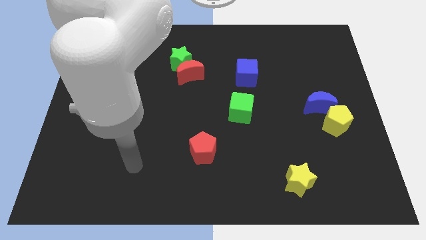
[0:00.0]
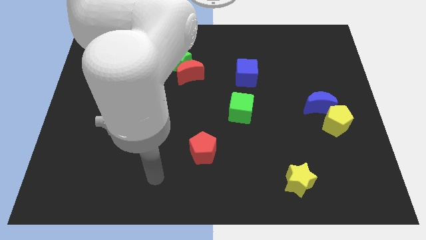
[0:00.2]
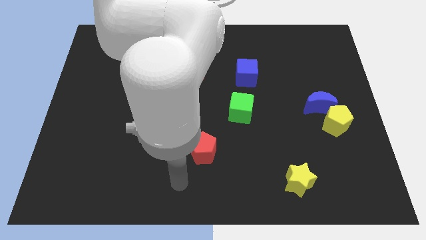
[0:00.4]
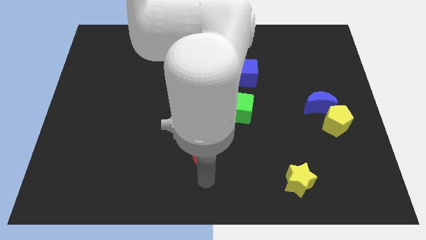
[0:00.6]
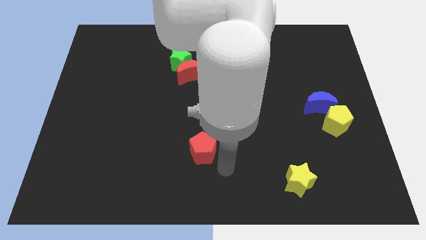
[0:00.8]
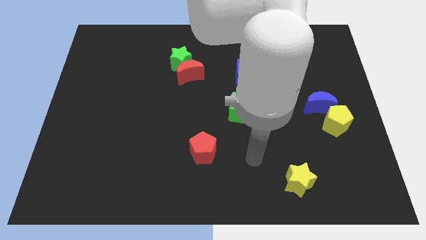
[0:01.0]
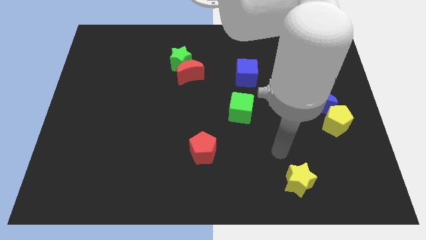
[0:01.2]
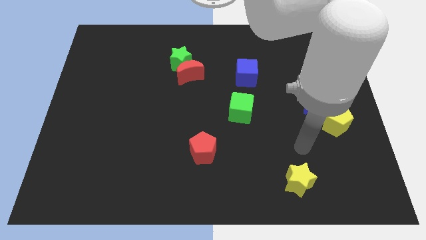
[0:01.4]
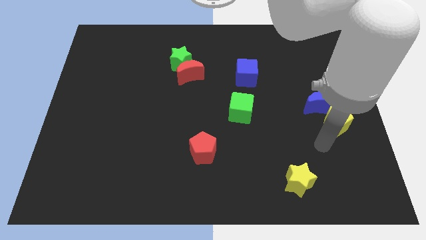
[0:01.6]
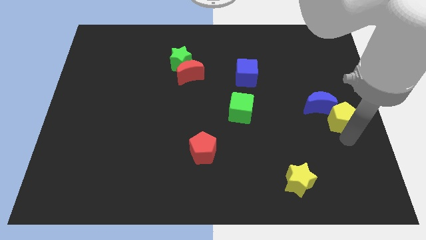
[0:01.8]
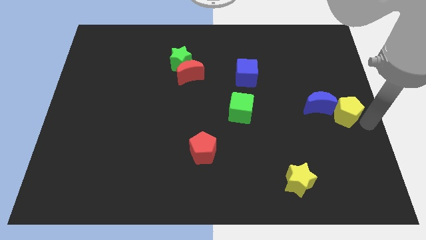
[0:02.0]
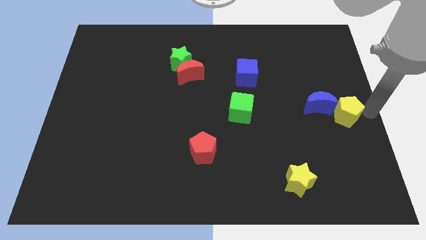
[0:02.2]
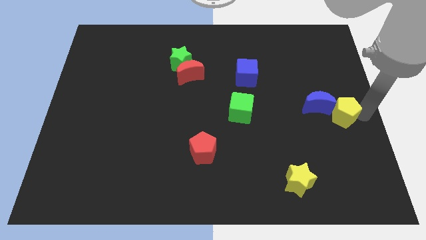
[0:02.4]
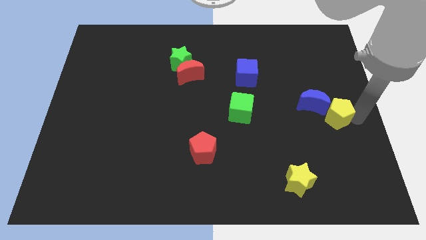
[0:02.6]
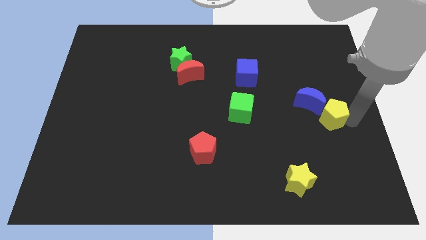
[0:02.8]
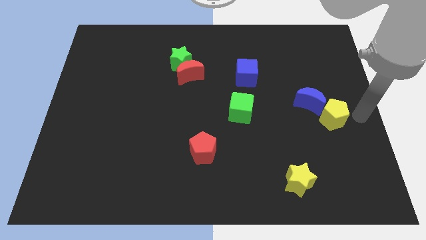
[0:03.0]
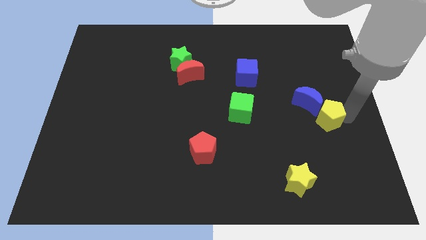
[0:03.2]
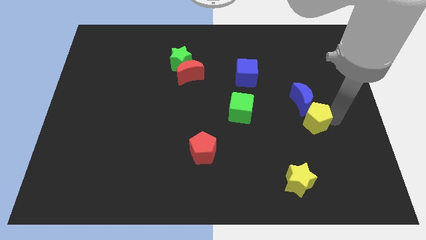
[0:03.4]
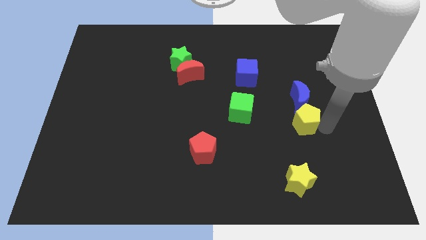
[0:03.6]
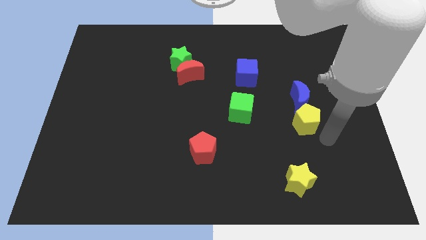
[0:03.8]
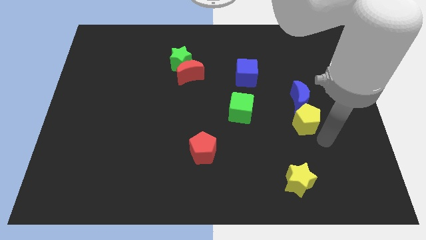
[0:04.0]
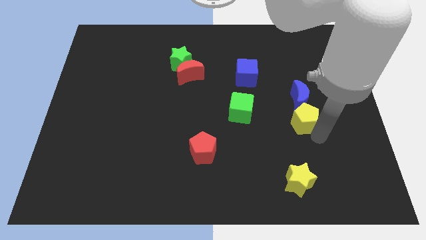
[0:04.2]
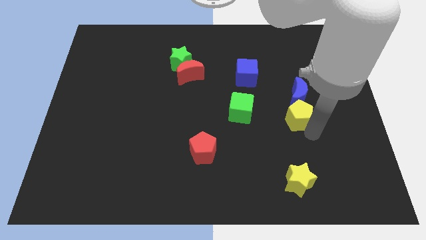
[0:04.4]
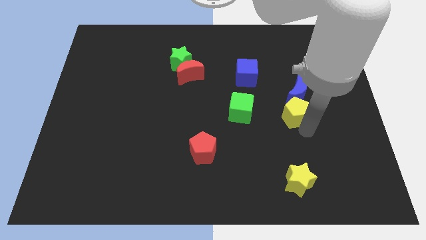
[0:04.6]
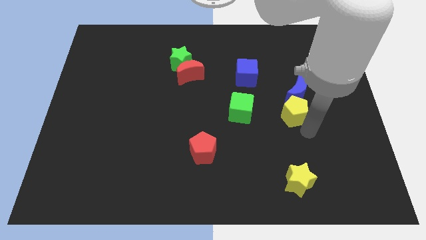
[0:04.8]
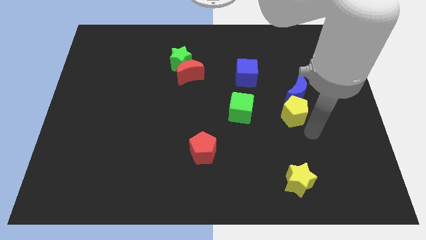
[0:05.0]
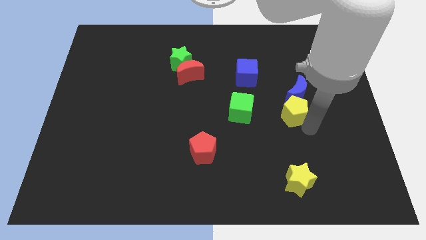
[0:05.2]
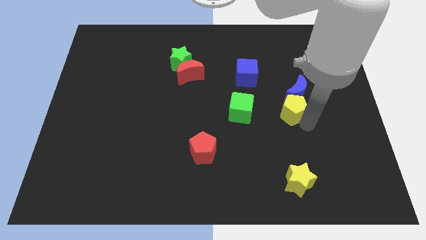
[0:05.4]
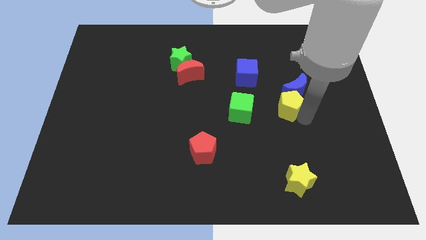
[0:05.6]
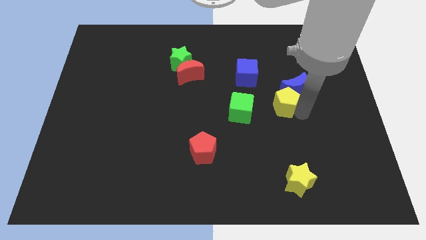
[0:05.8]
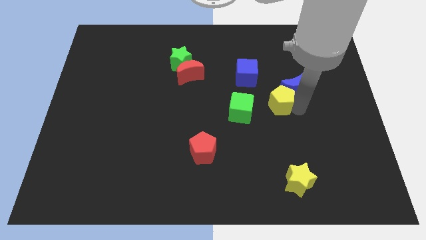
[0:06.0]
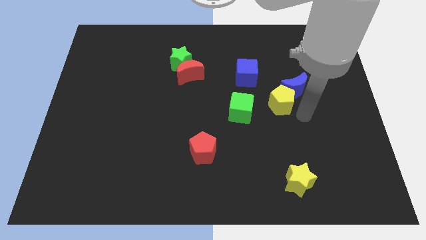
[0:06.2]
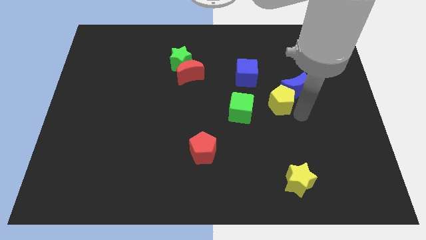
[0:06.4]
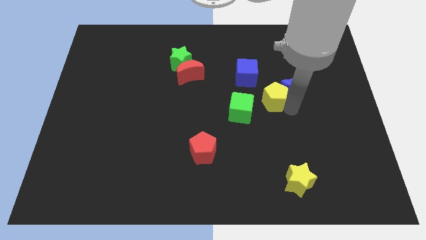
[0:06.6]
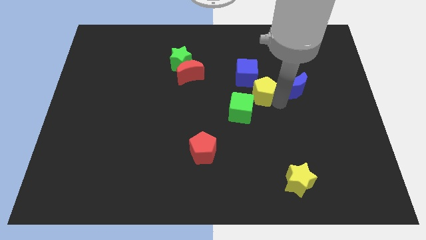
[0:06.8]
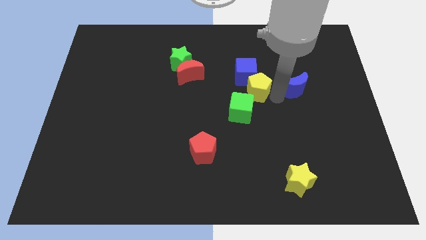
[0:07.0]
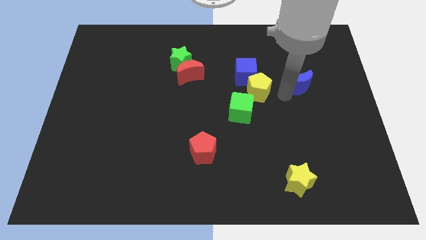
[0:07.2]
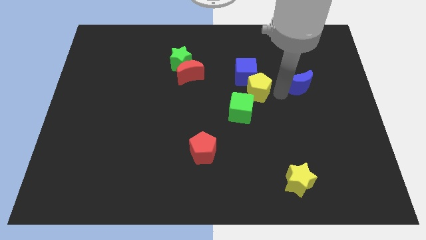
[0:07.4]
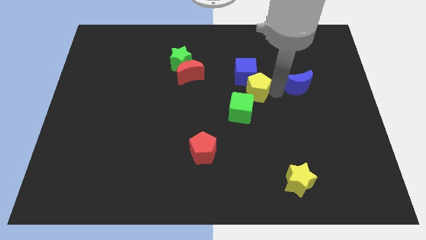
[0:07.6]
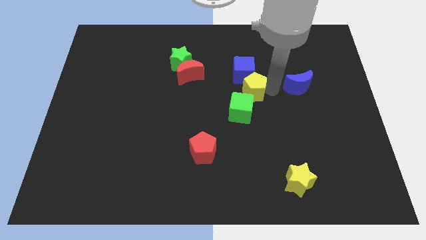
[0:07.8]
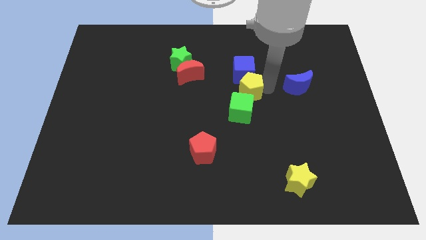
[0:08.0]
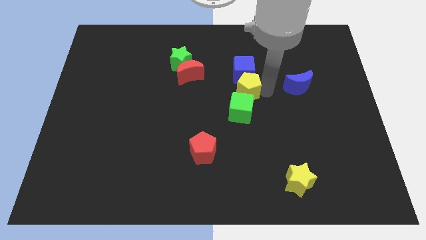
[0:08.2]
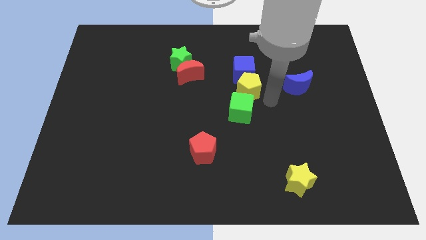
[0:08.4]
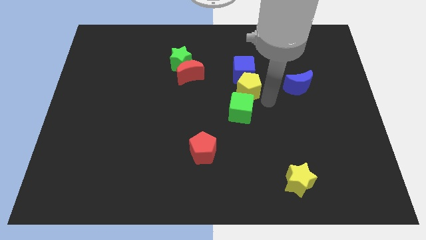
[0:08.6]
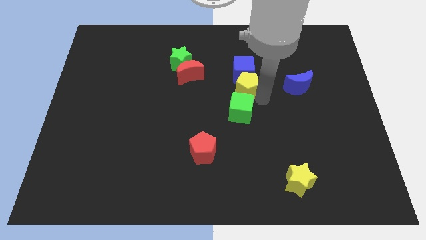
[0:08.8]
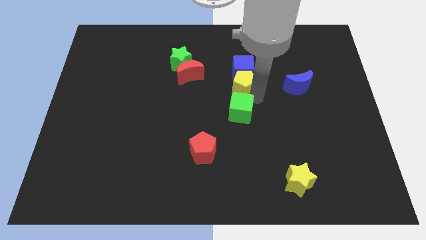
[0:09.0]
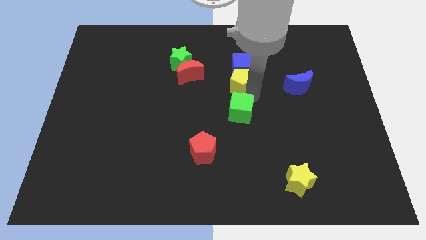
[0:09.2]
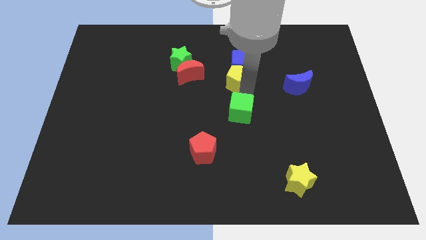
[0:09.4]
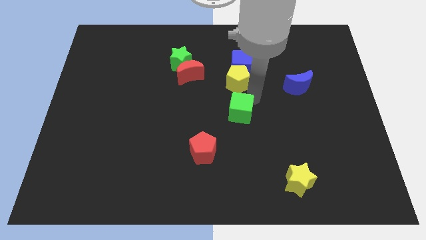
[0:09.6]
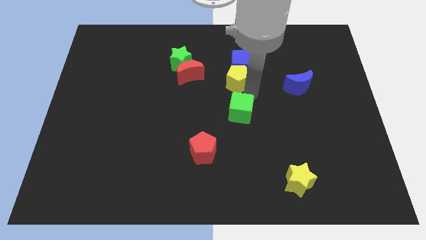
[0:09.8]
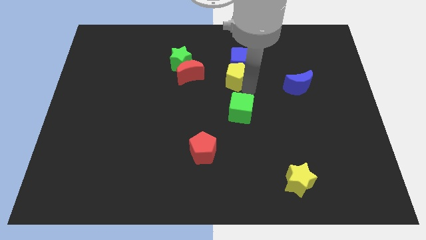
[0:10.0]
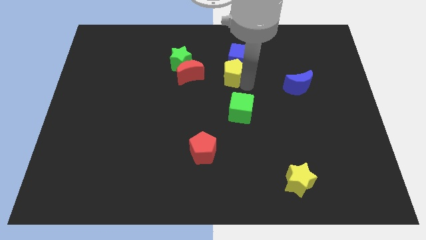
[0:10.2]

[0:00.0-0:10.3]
slide the yellow pentagon to the right side of the green star

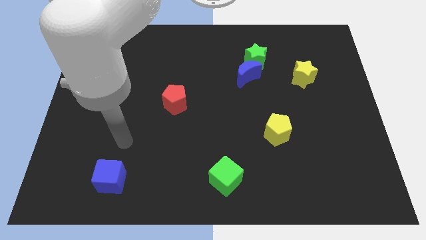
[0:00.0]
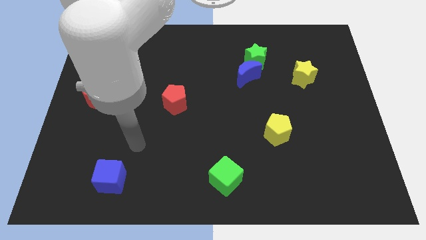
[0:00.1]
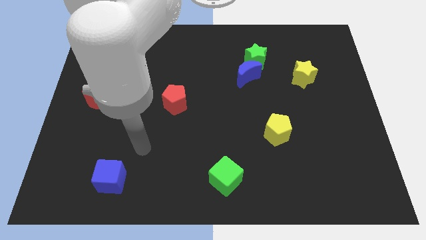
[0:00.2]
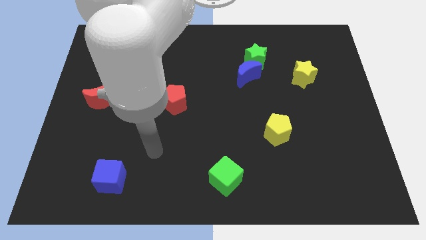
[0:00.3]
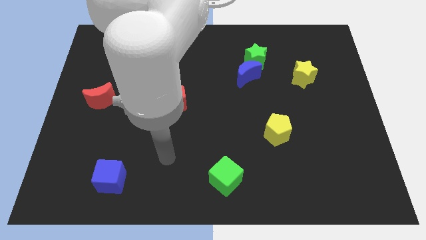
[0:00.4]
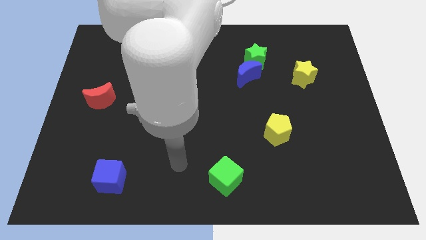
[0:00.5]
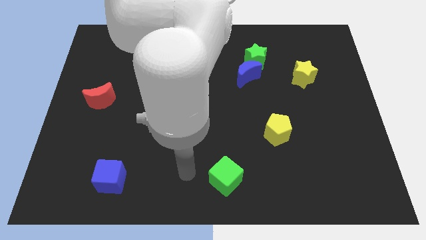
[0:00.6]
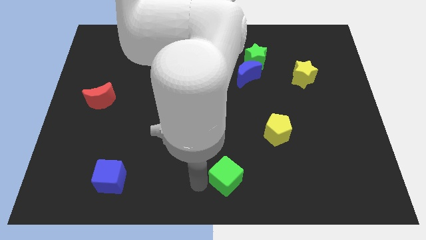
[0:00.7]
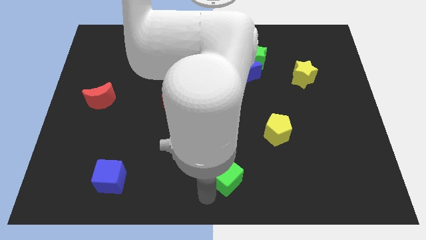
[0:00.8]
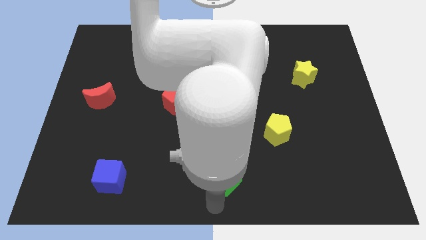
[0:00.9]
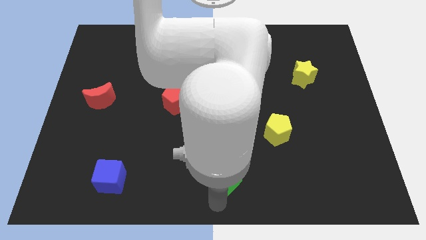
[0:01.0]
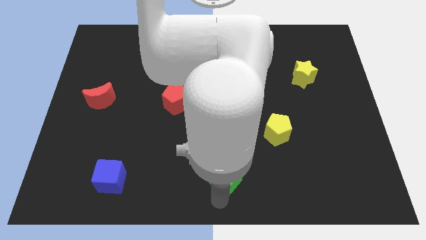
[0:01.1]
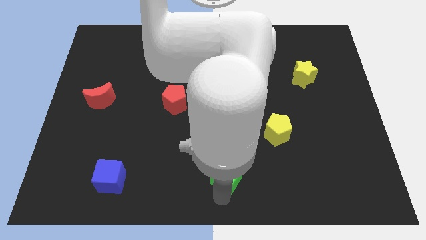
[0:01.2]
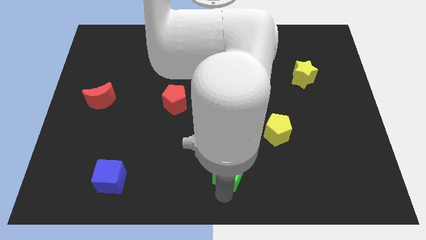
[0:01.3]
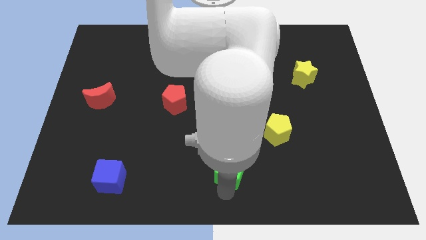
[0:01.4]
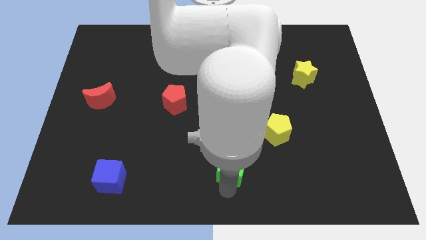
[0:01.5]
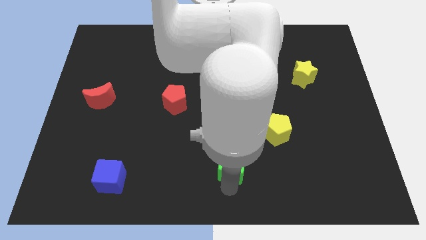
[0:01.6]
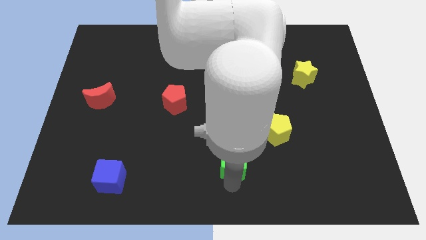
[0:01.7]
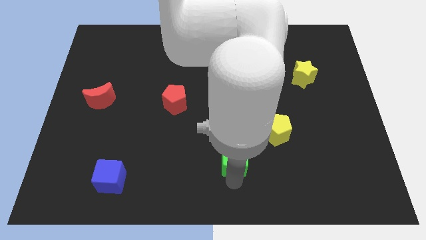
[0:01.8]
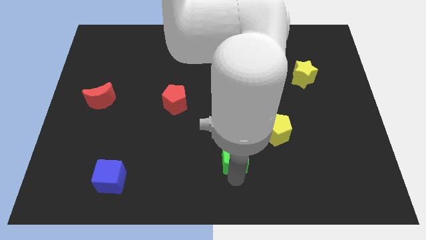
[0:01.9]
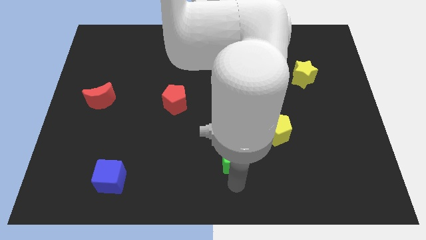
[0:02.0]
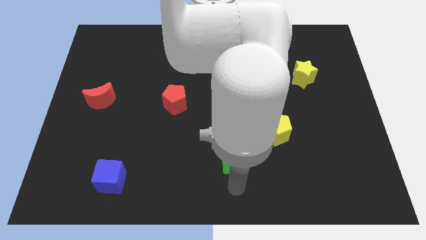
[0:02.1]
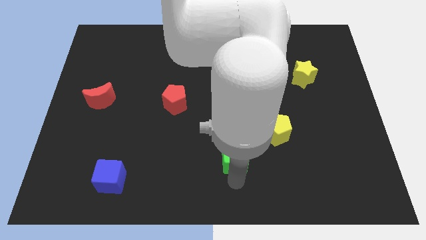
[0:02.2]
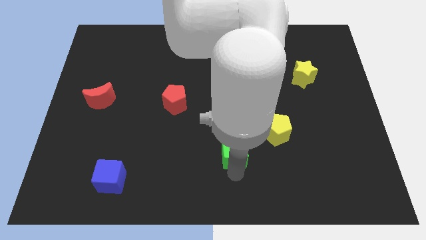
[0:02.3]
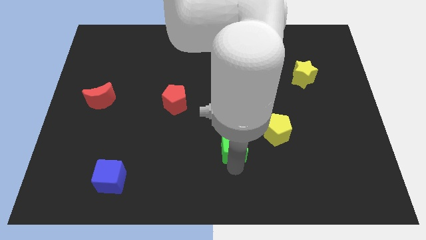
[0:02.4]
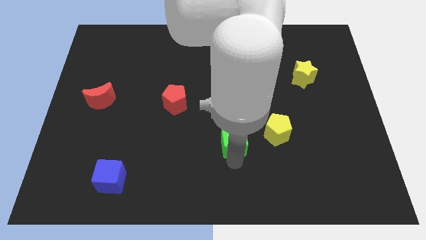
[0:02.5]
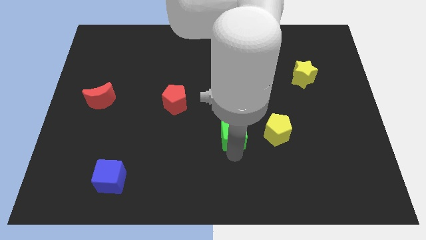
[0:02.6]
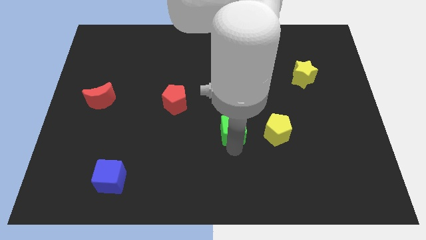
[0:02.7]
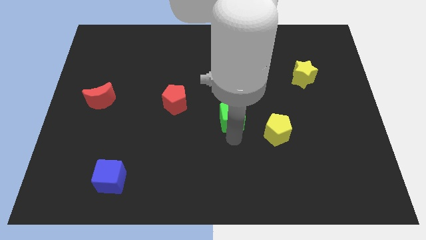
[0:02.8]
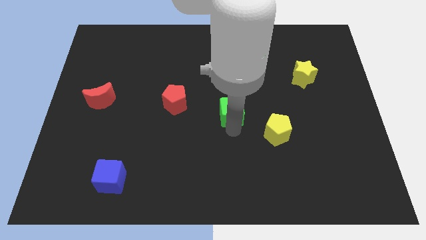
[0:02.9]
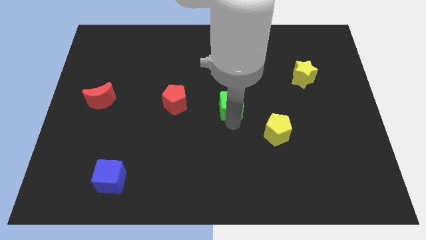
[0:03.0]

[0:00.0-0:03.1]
slide the green cube to the bottom left side of the blue moon
